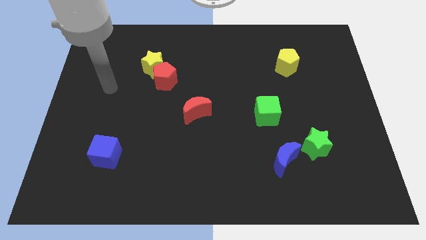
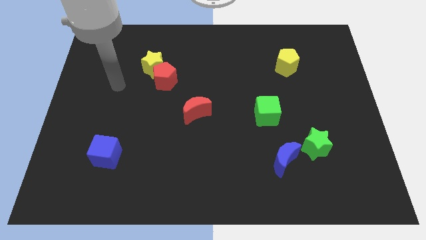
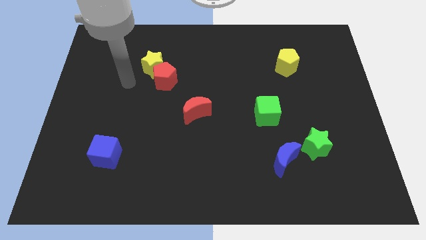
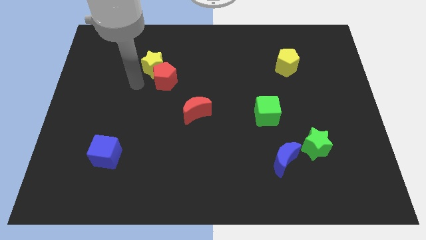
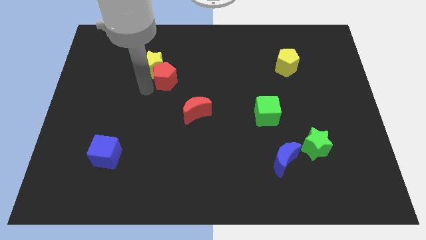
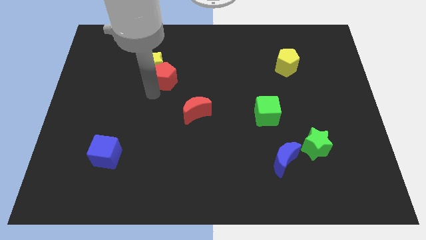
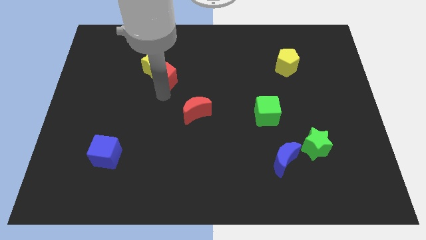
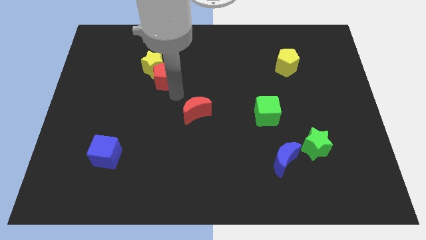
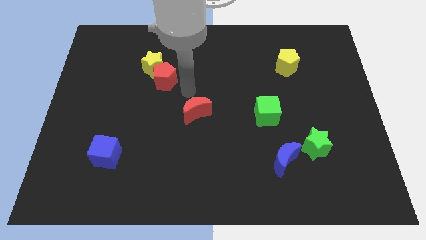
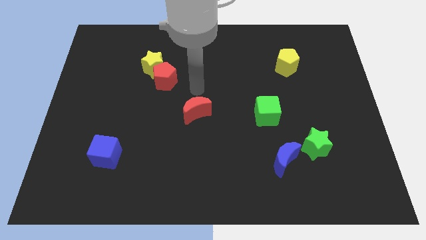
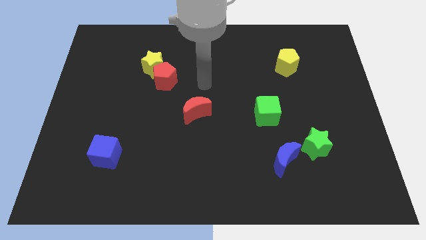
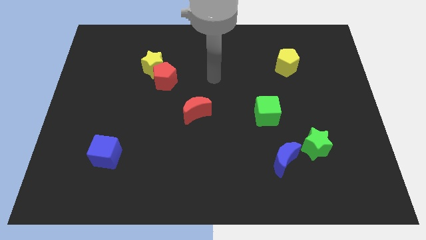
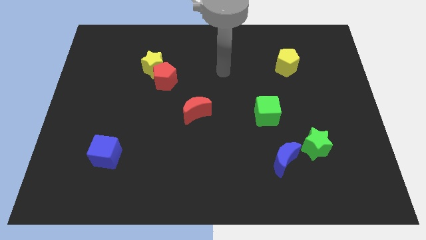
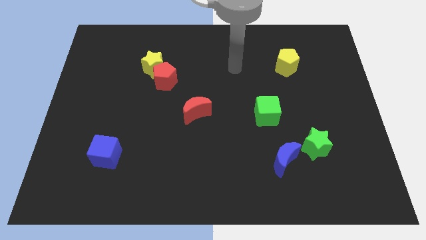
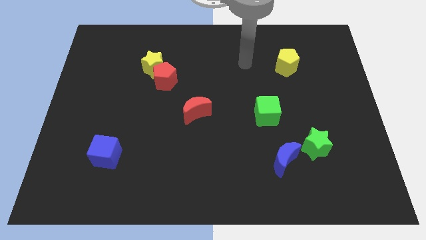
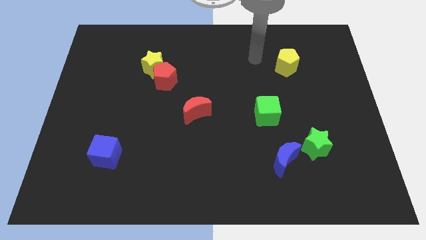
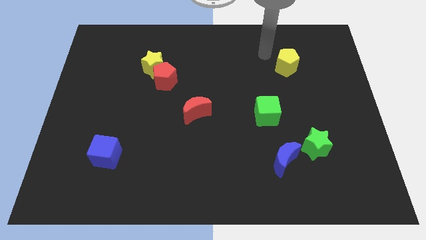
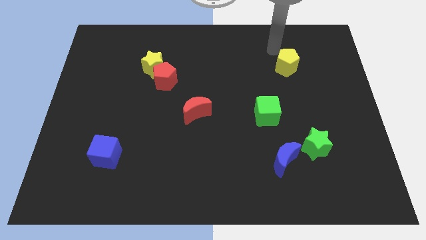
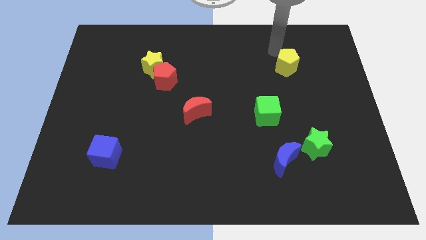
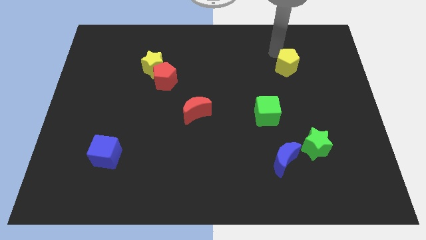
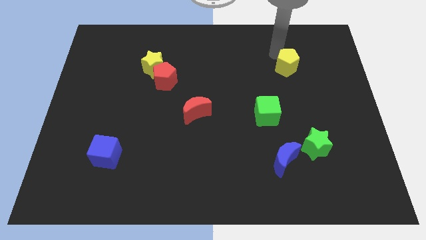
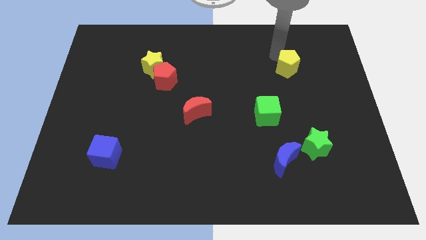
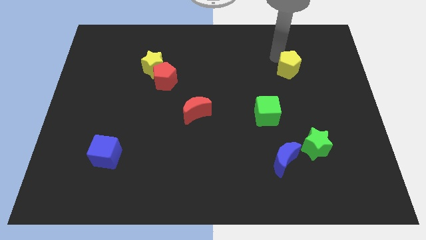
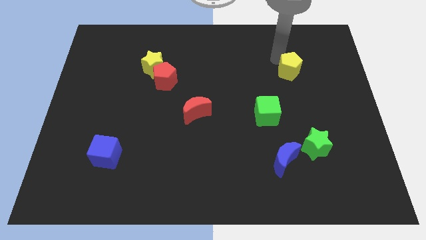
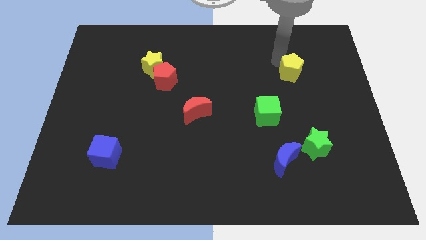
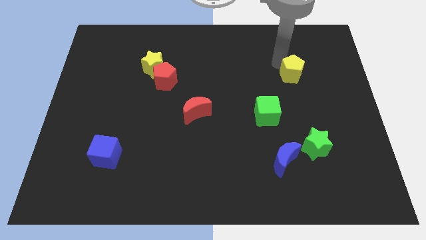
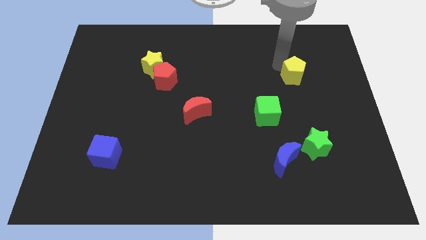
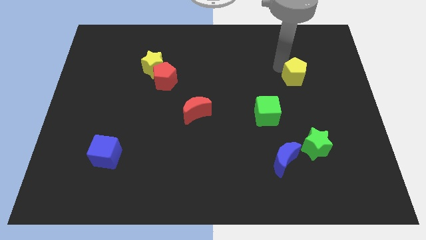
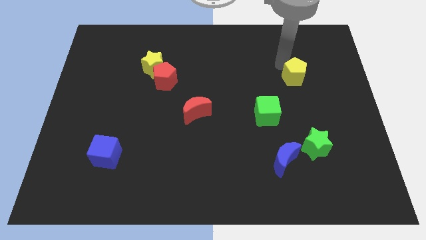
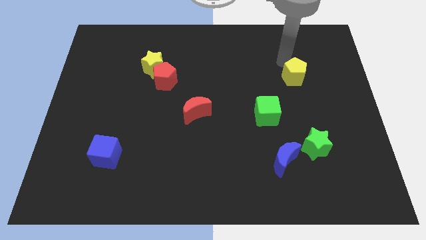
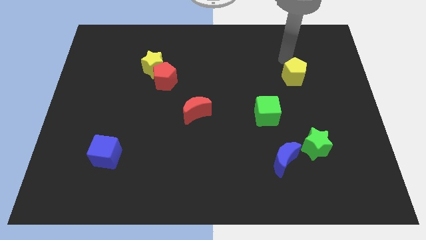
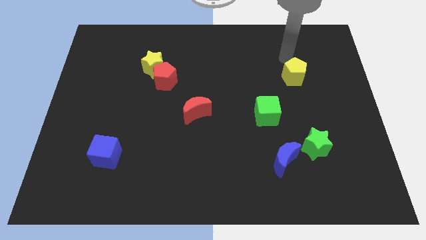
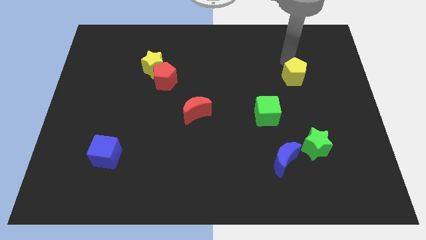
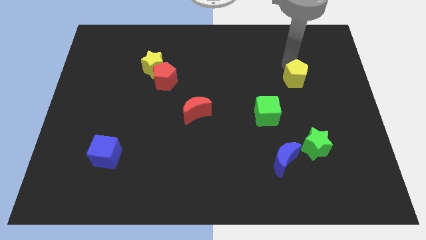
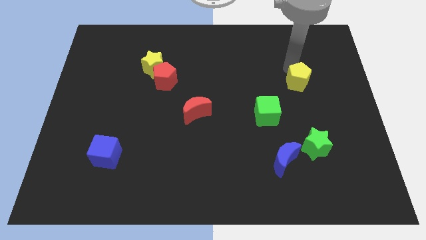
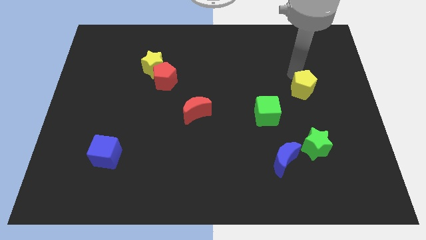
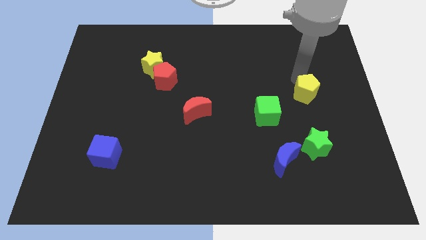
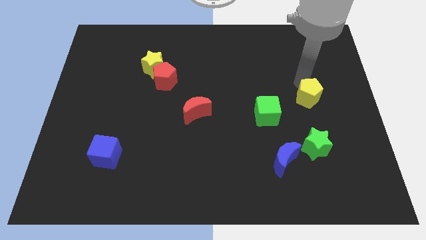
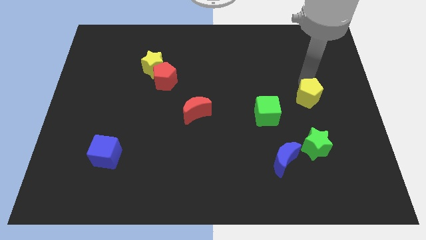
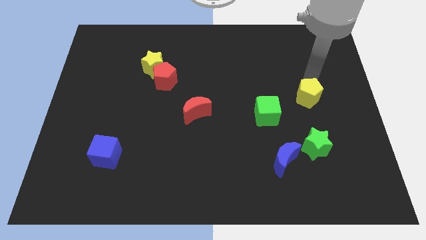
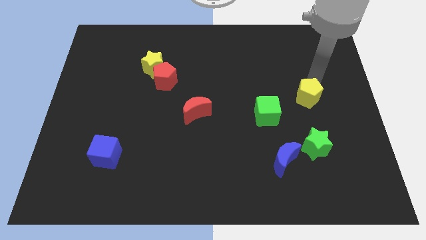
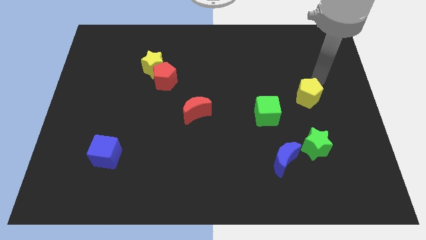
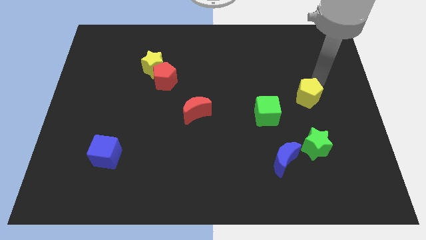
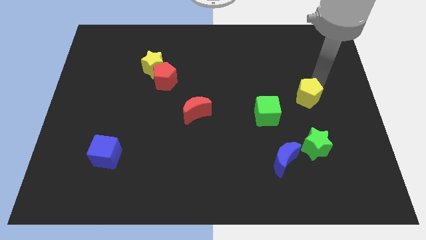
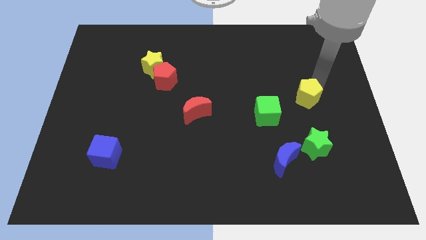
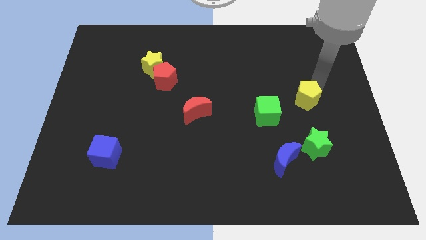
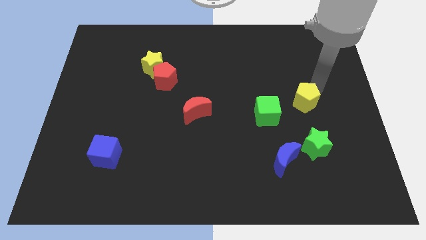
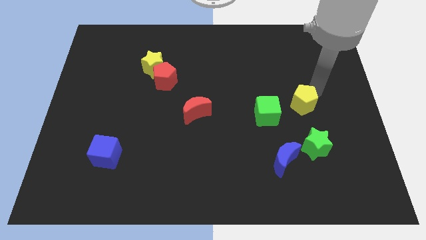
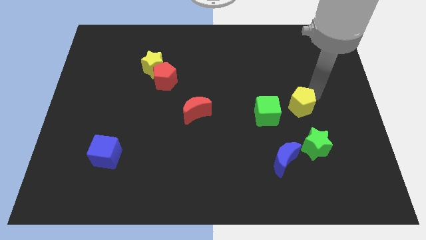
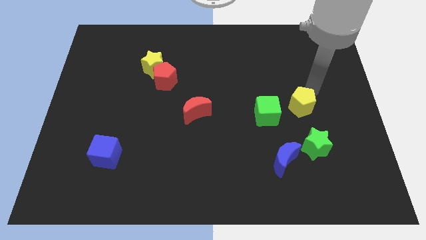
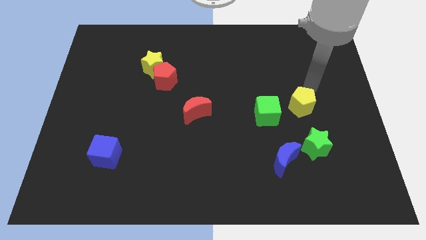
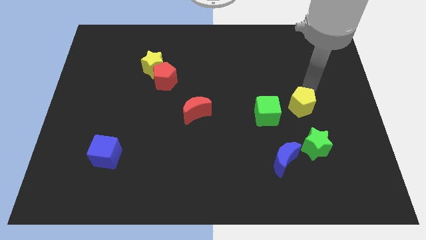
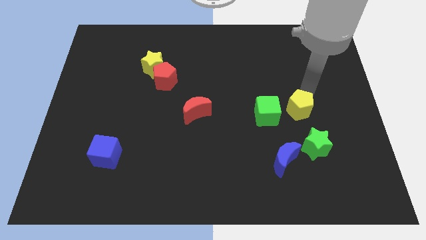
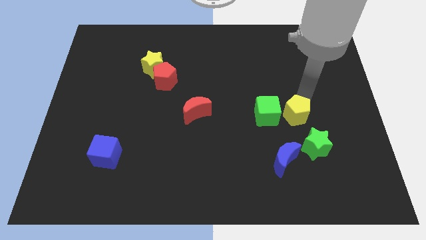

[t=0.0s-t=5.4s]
slide the yellow pentagon to the top left side of the green star
